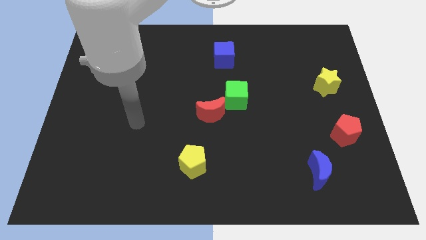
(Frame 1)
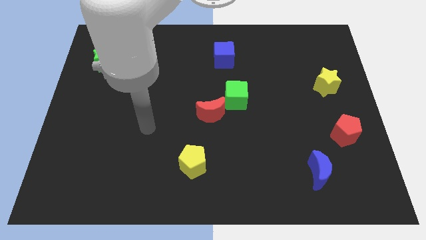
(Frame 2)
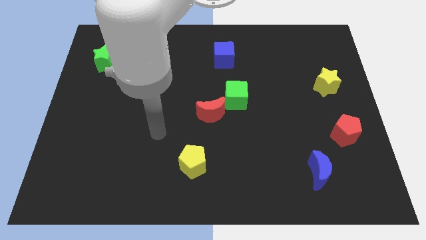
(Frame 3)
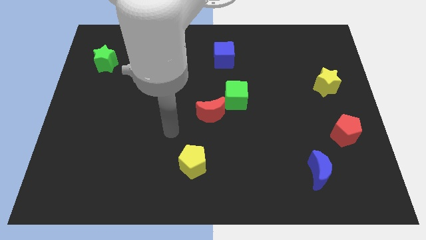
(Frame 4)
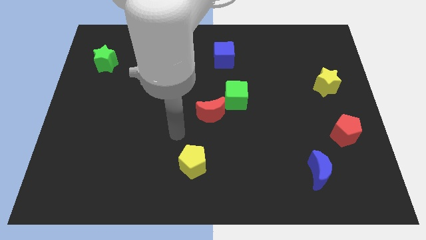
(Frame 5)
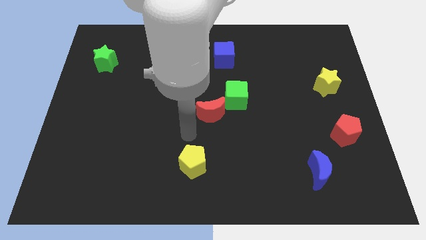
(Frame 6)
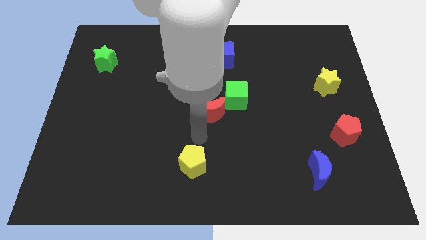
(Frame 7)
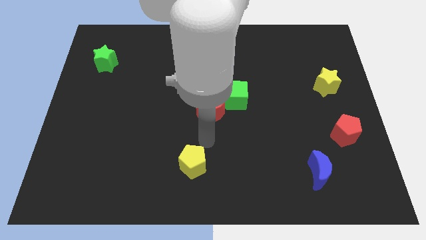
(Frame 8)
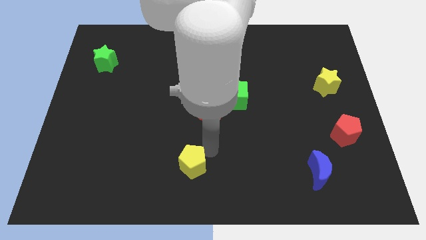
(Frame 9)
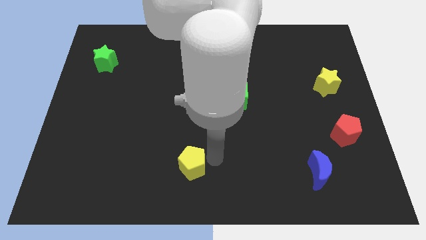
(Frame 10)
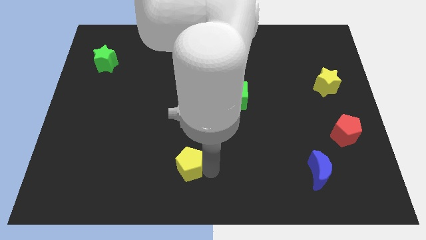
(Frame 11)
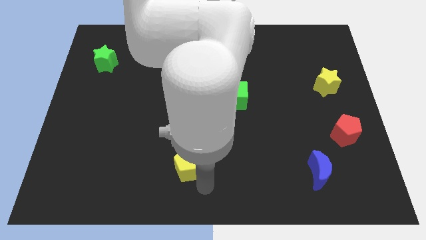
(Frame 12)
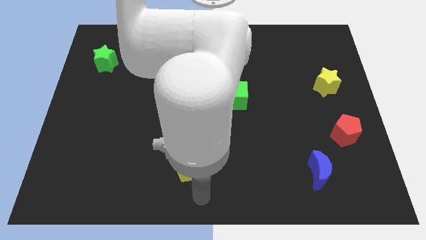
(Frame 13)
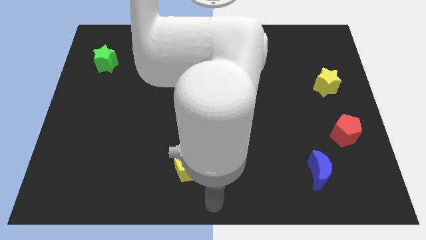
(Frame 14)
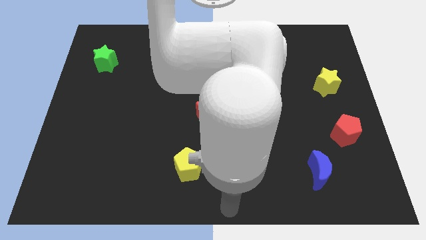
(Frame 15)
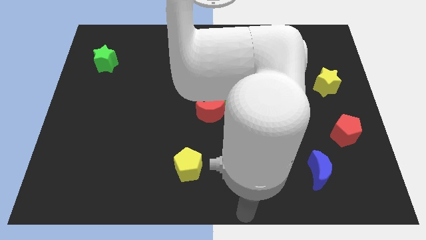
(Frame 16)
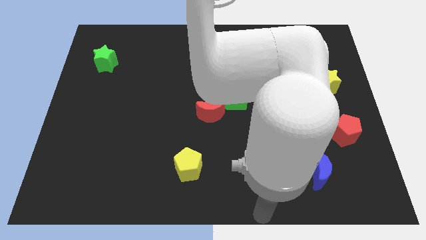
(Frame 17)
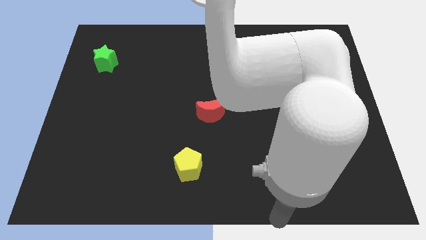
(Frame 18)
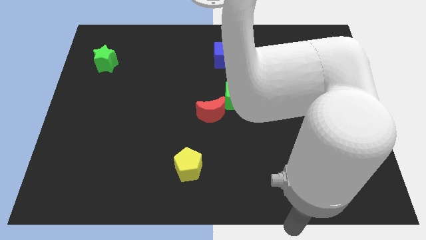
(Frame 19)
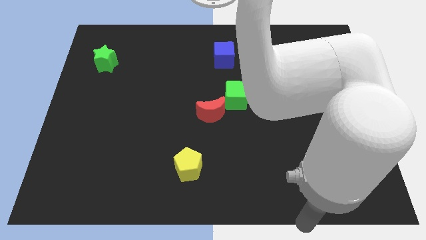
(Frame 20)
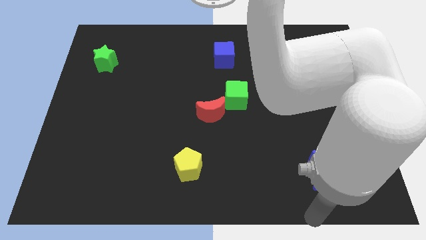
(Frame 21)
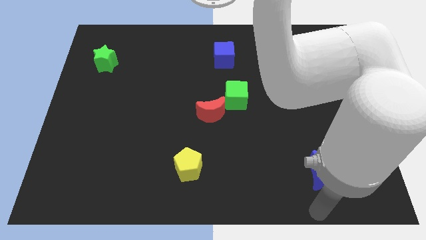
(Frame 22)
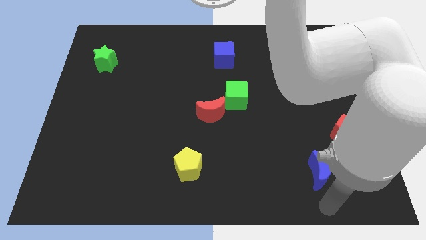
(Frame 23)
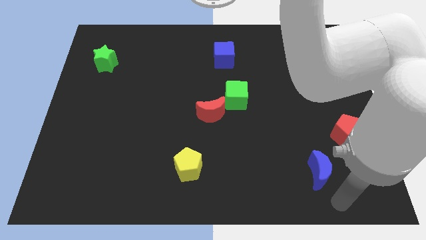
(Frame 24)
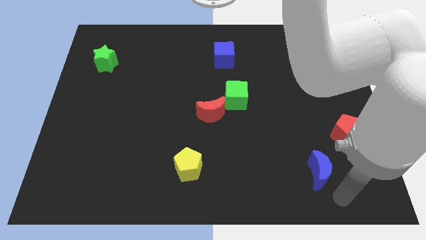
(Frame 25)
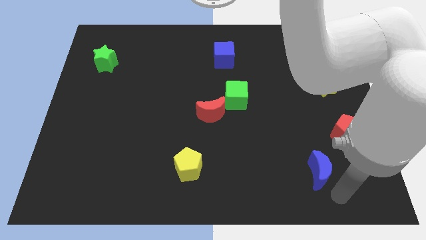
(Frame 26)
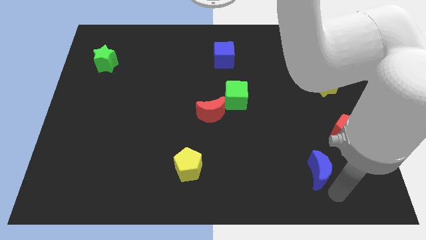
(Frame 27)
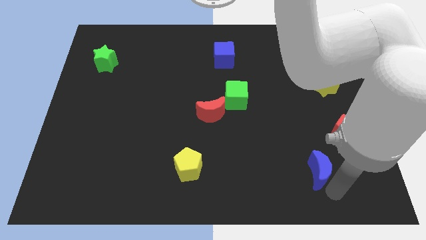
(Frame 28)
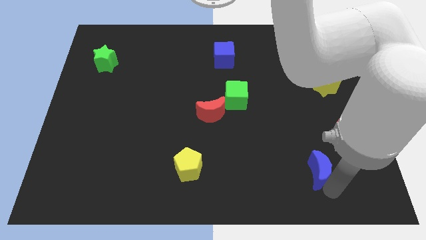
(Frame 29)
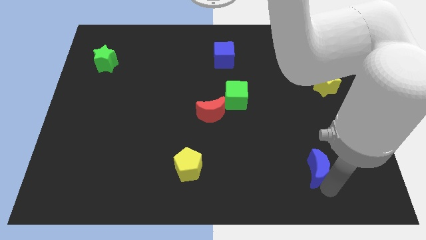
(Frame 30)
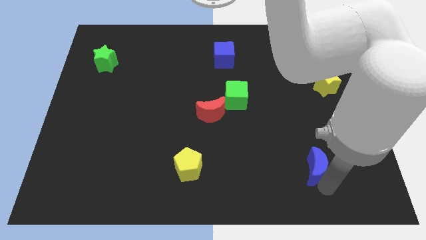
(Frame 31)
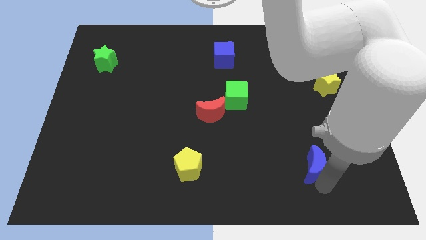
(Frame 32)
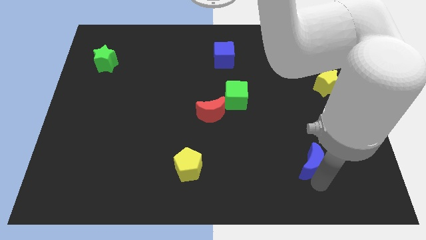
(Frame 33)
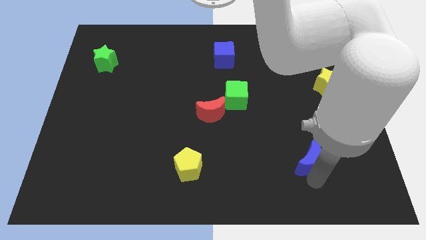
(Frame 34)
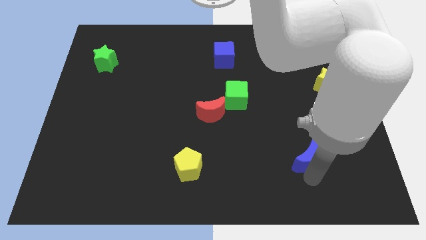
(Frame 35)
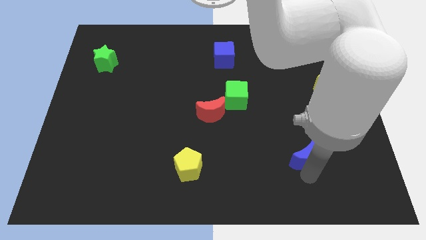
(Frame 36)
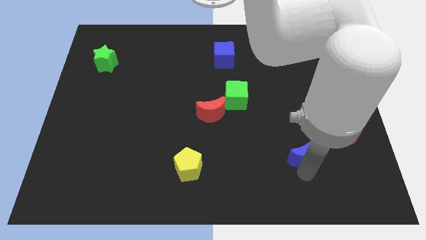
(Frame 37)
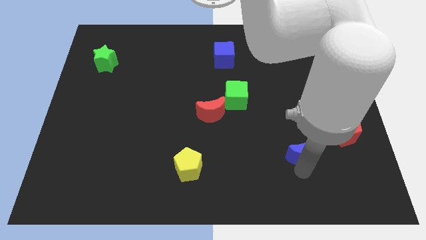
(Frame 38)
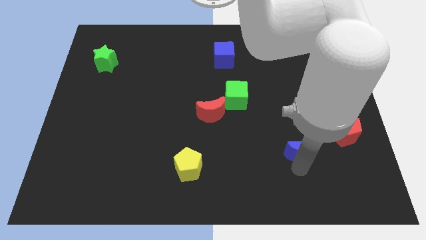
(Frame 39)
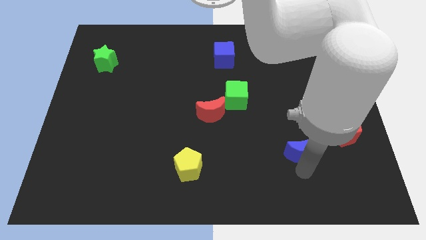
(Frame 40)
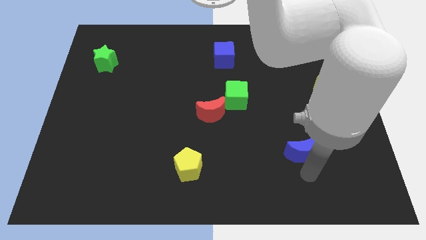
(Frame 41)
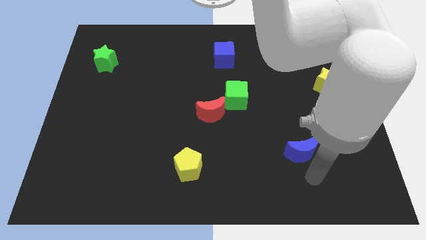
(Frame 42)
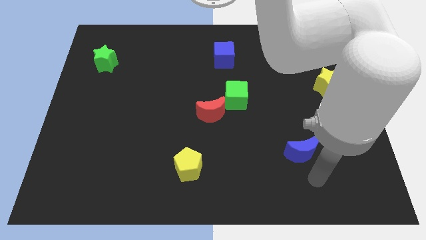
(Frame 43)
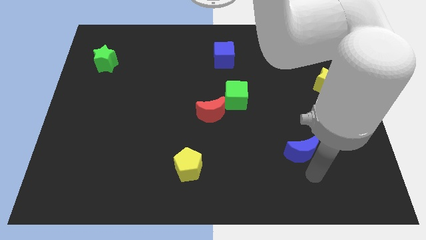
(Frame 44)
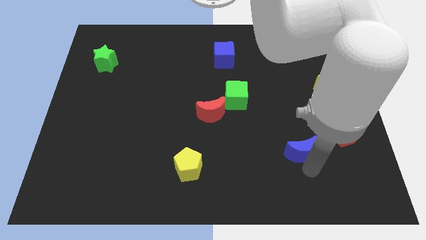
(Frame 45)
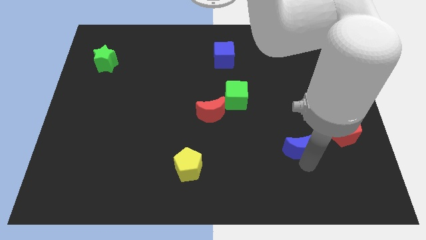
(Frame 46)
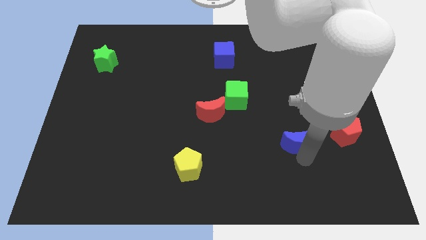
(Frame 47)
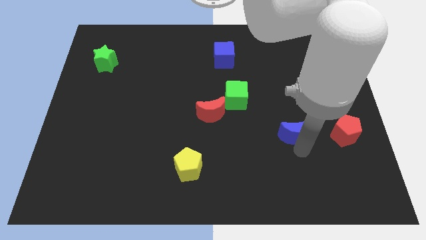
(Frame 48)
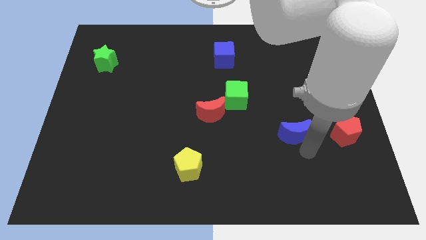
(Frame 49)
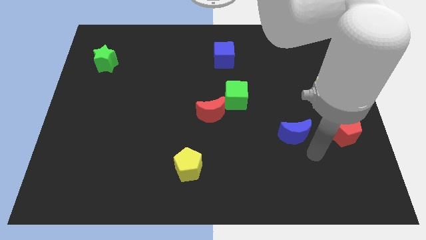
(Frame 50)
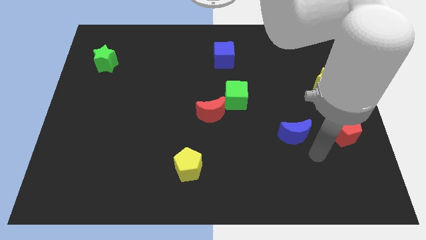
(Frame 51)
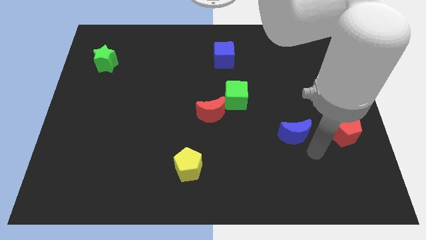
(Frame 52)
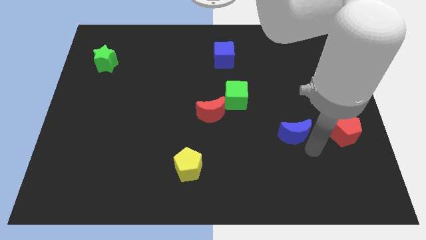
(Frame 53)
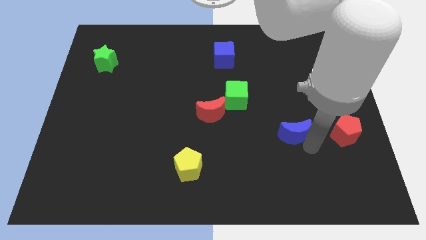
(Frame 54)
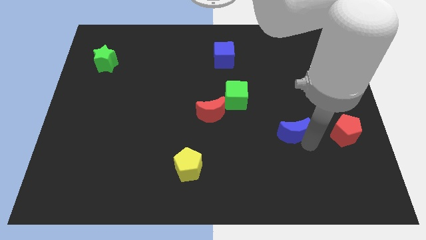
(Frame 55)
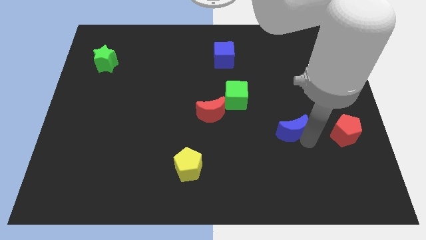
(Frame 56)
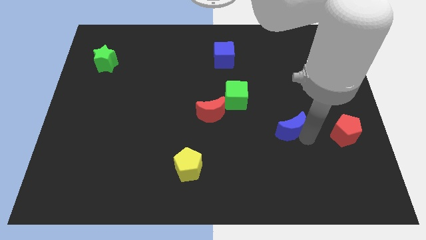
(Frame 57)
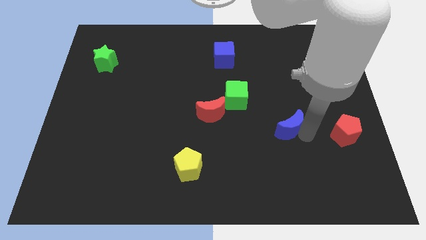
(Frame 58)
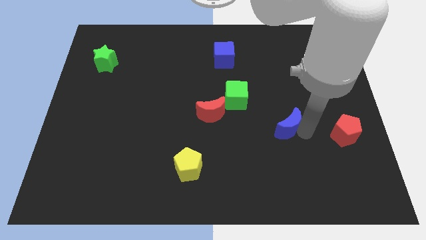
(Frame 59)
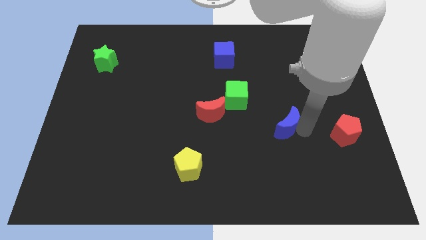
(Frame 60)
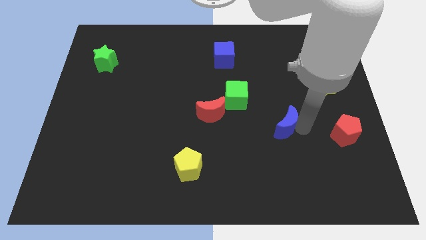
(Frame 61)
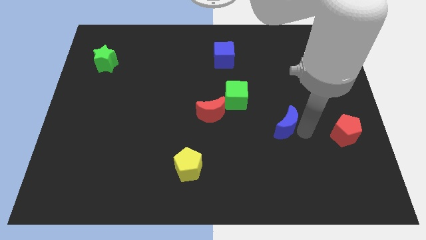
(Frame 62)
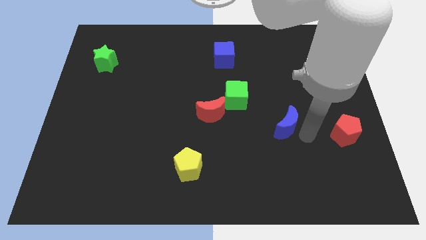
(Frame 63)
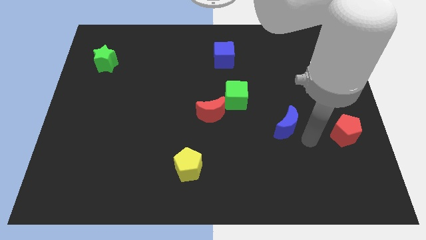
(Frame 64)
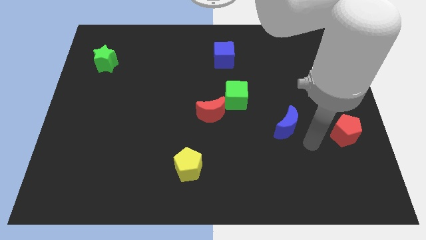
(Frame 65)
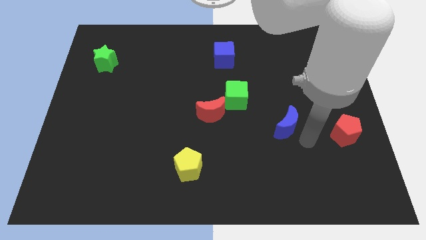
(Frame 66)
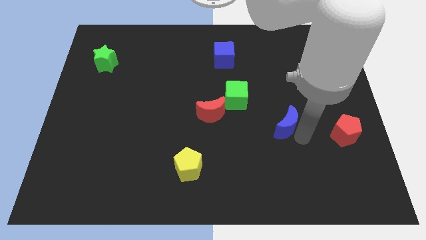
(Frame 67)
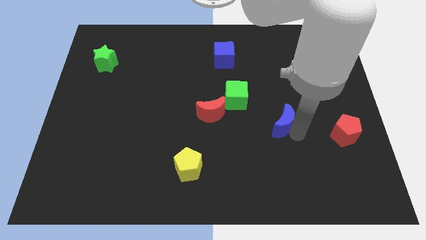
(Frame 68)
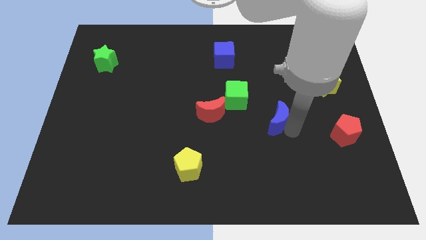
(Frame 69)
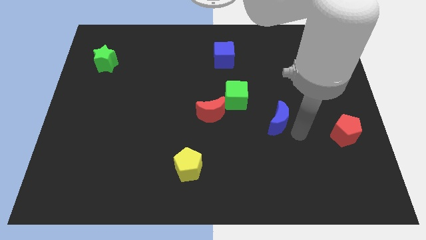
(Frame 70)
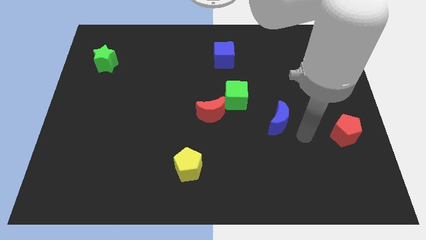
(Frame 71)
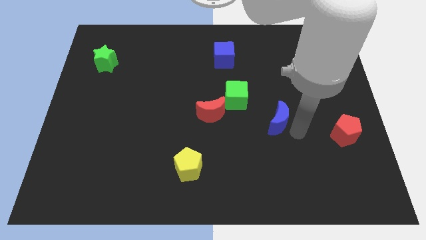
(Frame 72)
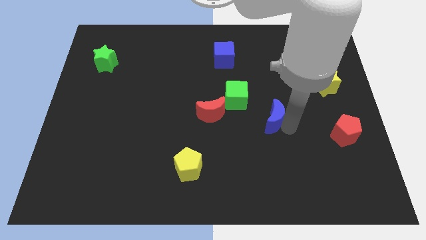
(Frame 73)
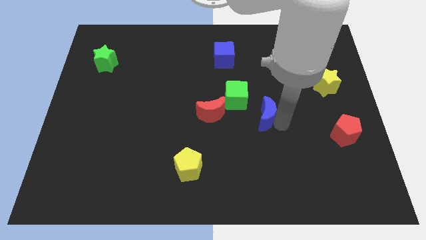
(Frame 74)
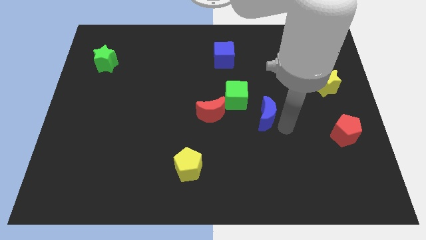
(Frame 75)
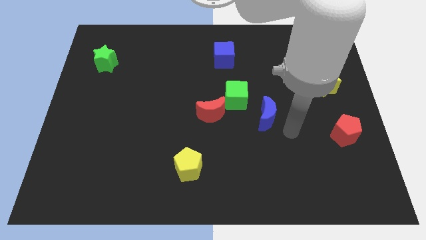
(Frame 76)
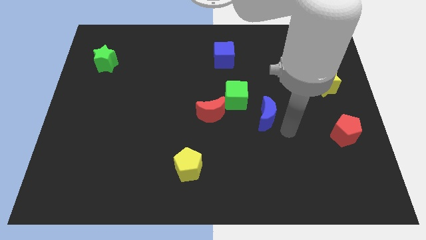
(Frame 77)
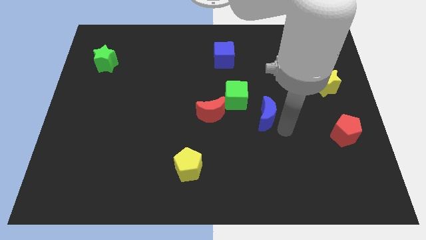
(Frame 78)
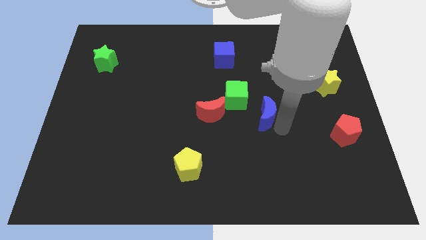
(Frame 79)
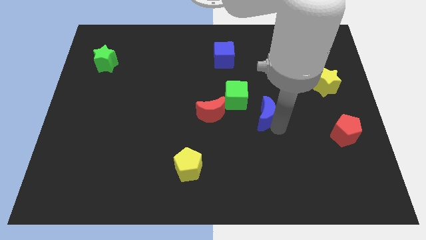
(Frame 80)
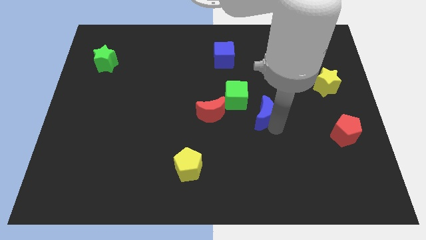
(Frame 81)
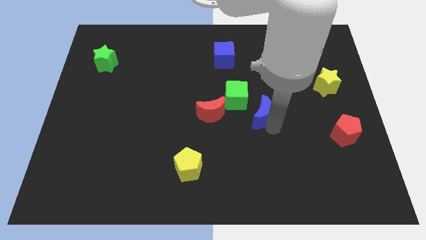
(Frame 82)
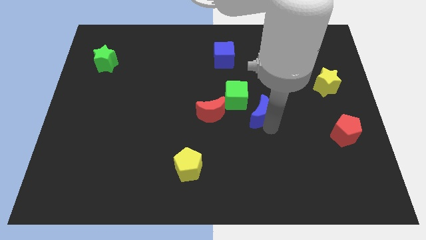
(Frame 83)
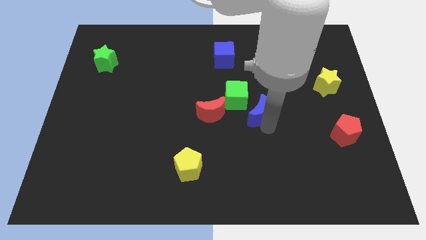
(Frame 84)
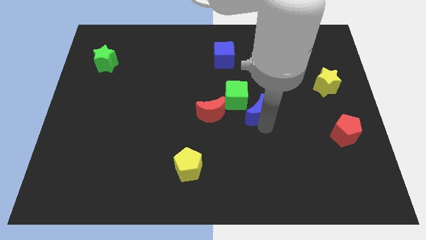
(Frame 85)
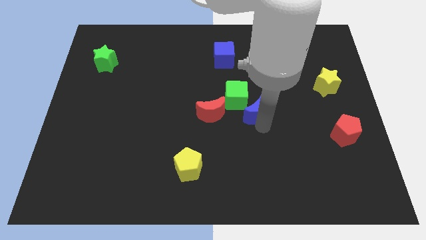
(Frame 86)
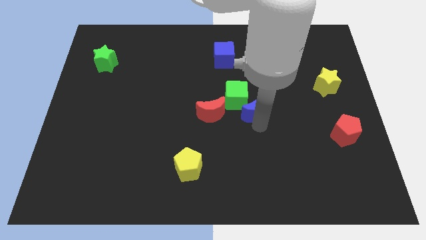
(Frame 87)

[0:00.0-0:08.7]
put the blue moon close to the green cube
